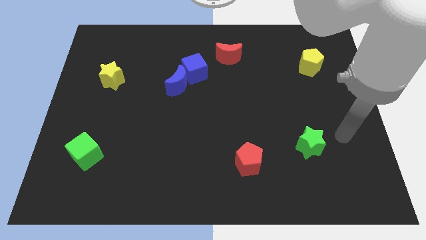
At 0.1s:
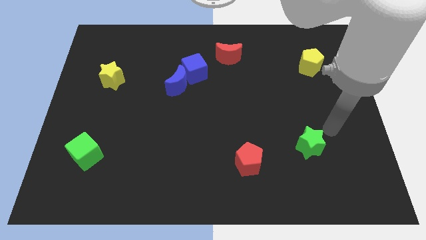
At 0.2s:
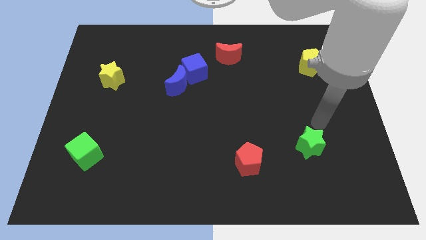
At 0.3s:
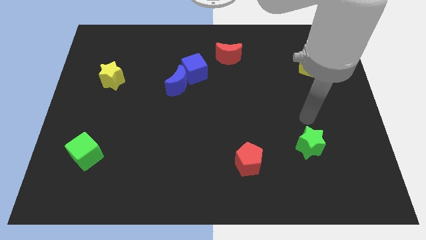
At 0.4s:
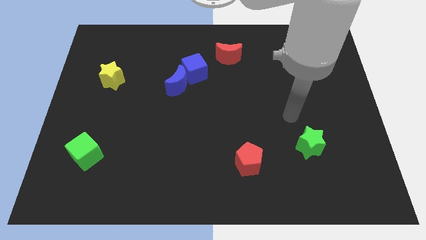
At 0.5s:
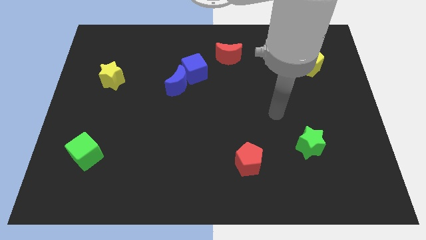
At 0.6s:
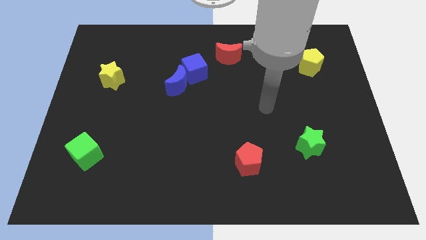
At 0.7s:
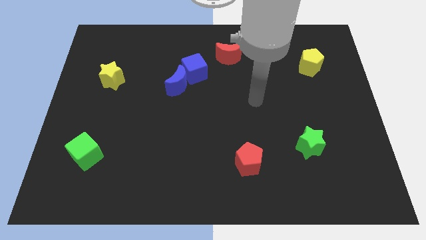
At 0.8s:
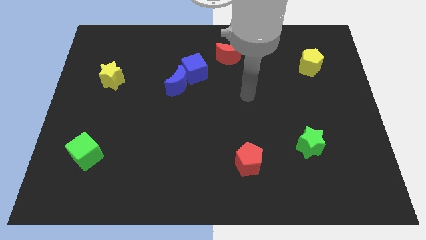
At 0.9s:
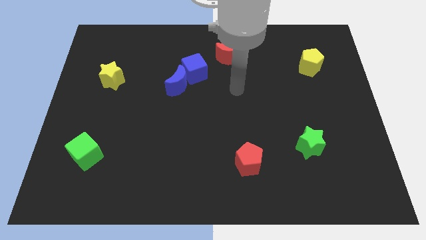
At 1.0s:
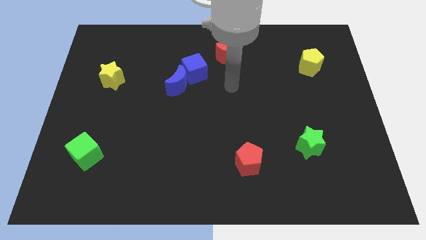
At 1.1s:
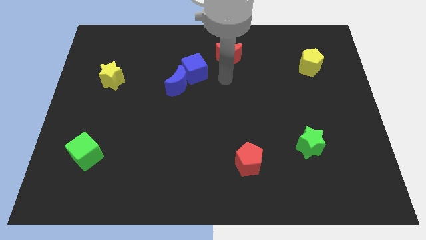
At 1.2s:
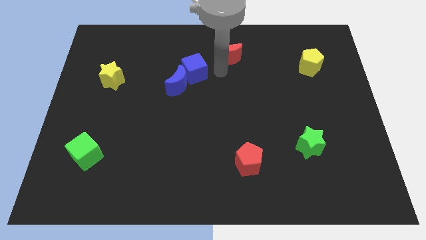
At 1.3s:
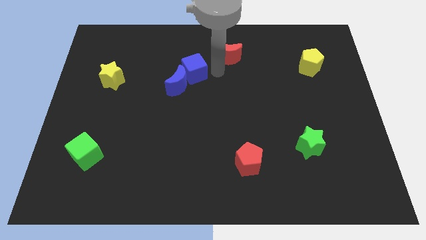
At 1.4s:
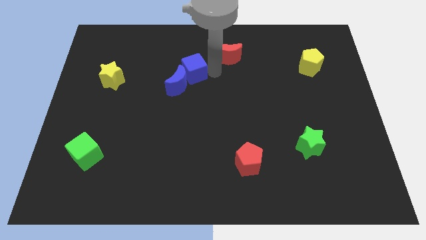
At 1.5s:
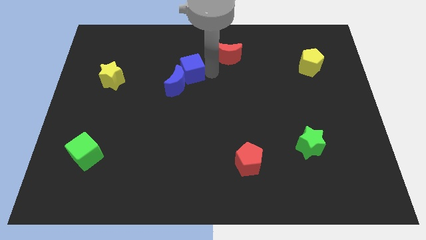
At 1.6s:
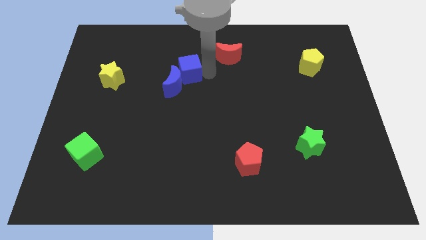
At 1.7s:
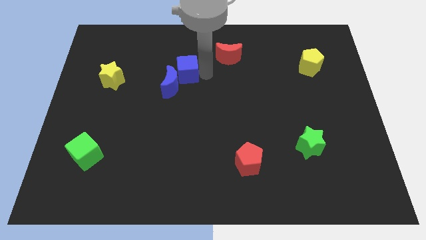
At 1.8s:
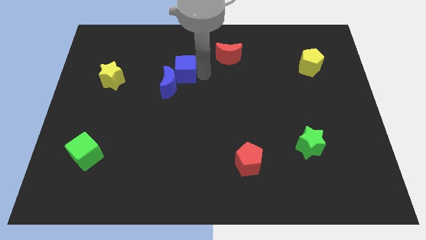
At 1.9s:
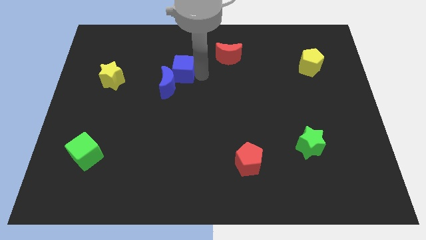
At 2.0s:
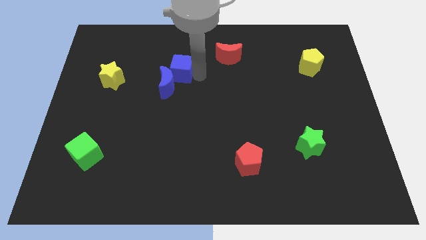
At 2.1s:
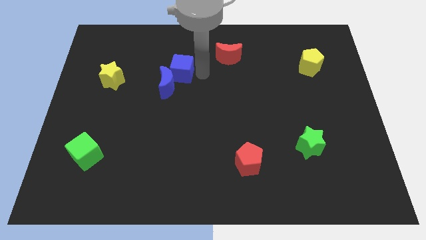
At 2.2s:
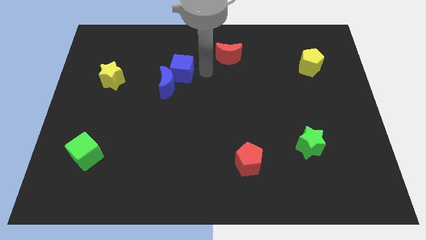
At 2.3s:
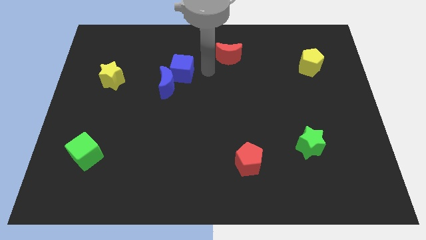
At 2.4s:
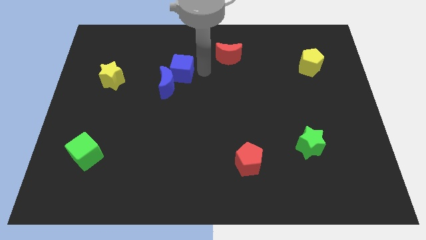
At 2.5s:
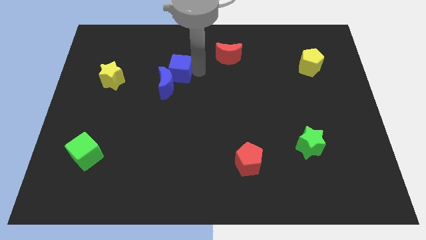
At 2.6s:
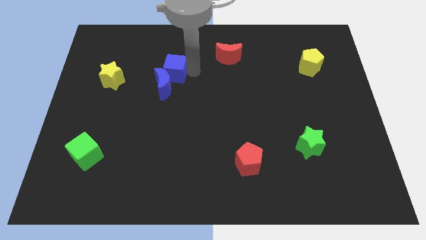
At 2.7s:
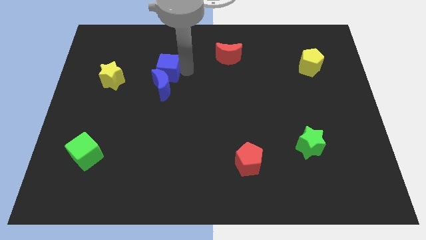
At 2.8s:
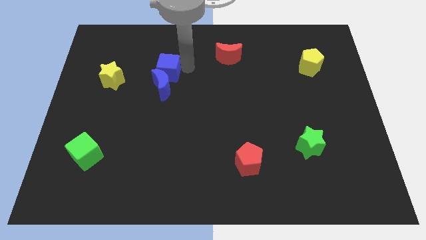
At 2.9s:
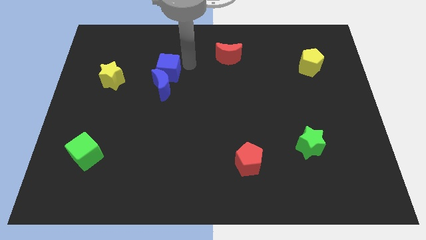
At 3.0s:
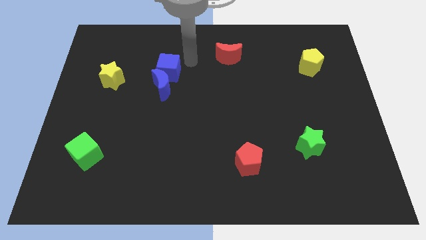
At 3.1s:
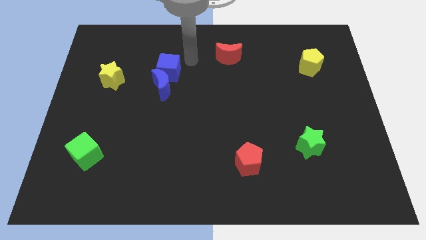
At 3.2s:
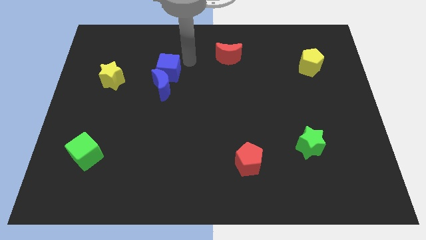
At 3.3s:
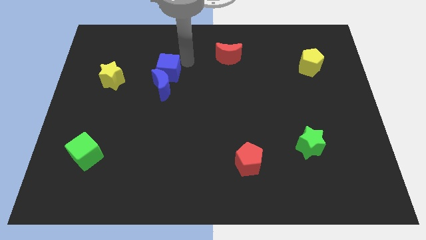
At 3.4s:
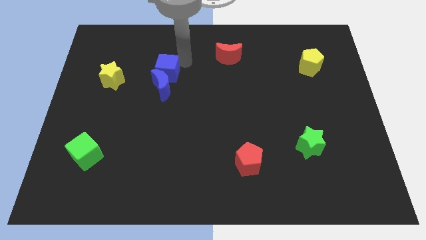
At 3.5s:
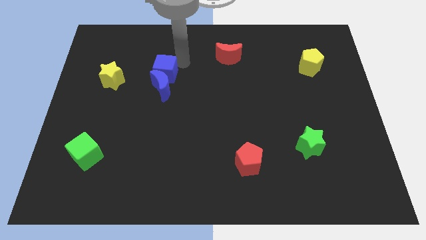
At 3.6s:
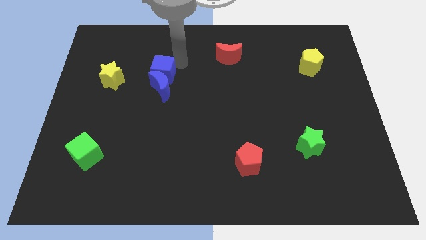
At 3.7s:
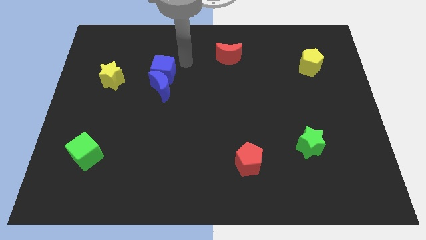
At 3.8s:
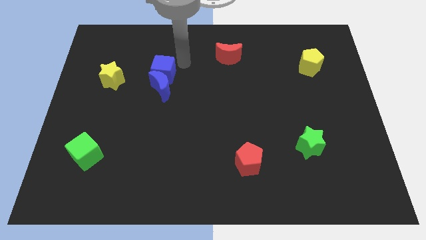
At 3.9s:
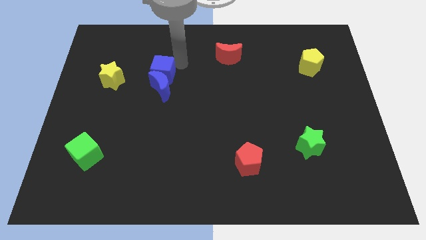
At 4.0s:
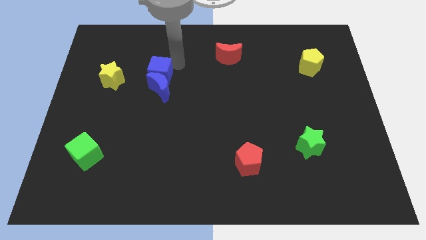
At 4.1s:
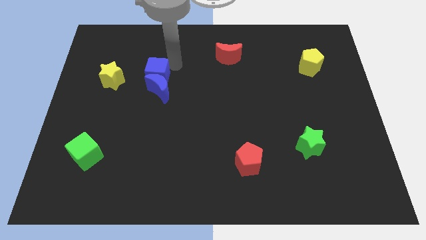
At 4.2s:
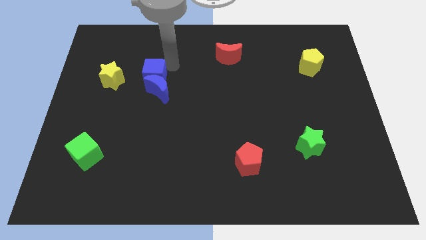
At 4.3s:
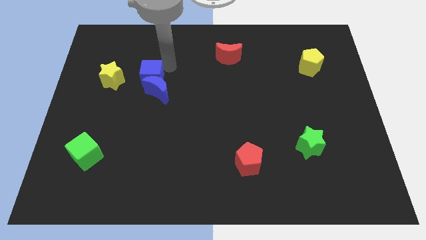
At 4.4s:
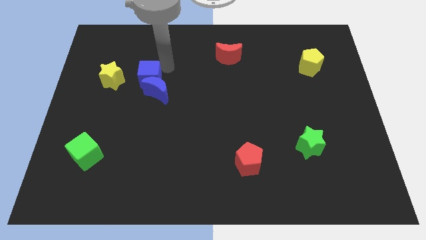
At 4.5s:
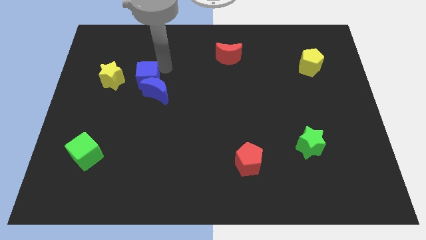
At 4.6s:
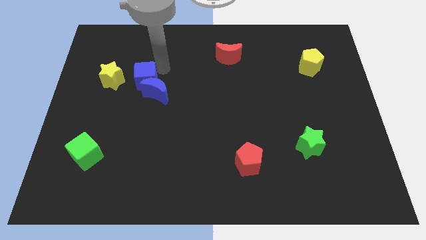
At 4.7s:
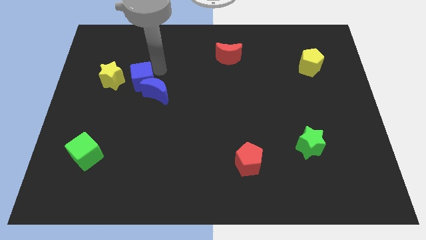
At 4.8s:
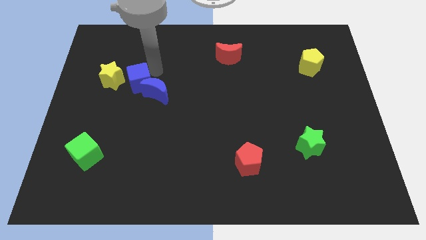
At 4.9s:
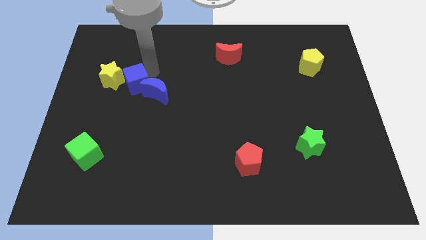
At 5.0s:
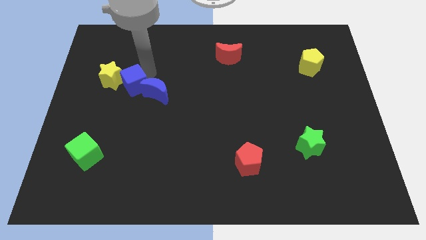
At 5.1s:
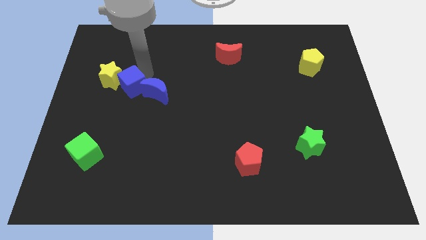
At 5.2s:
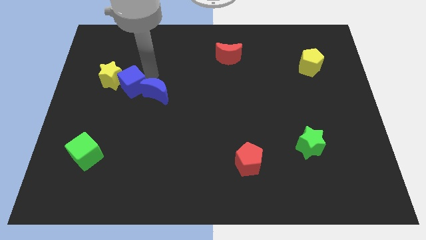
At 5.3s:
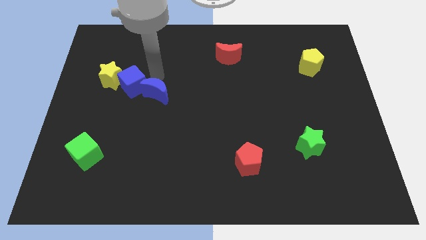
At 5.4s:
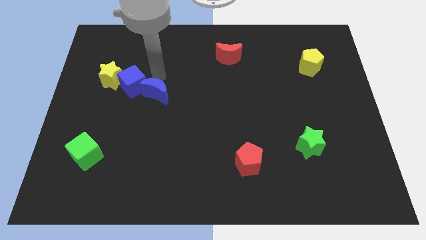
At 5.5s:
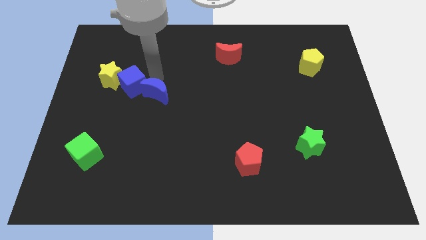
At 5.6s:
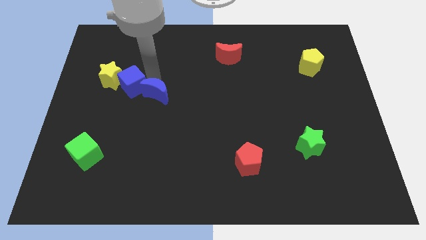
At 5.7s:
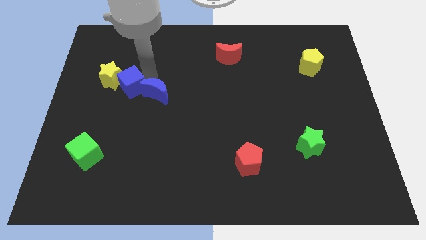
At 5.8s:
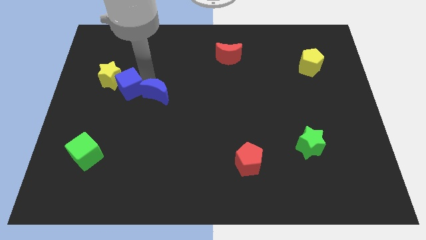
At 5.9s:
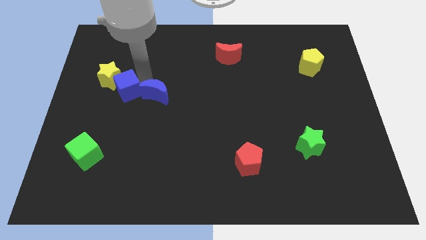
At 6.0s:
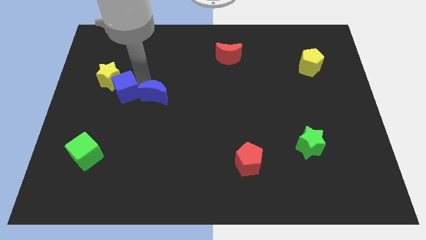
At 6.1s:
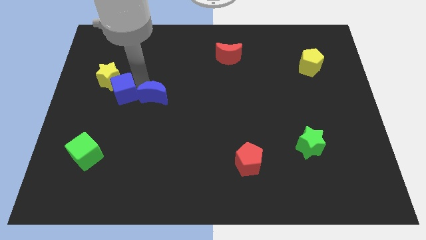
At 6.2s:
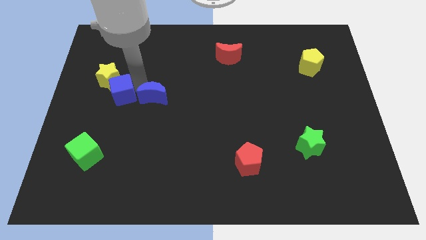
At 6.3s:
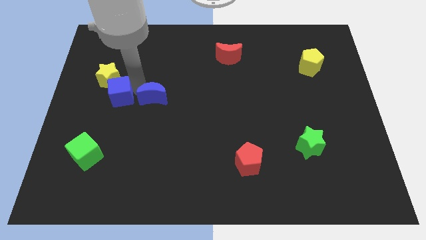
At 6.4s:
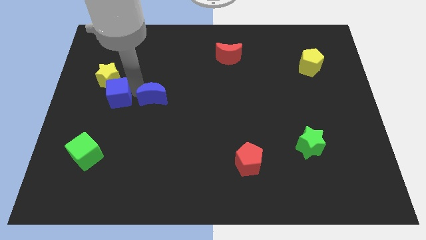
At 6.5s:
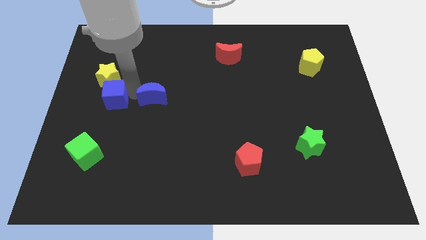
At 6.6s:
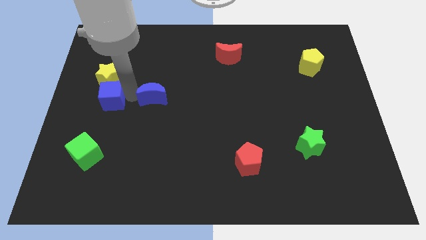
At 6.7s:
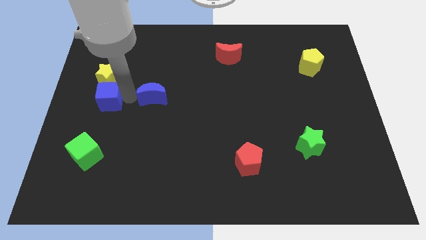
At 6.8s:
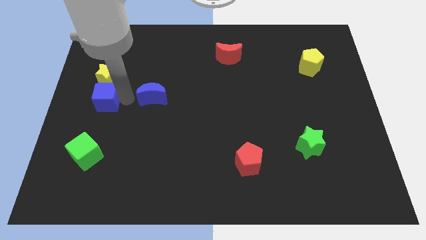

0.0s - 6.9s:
move the blue cube to the center left
